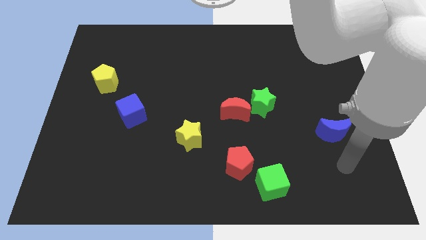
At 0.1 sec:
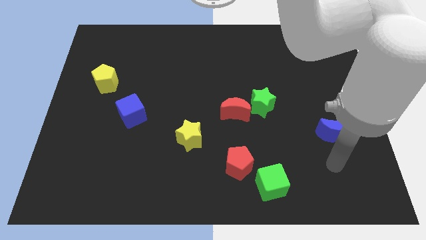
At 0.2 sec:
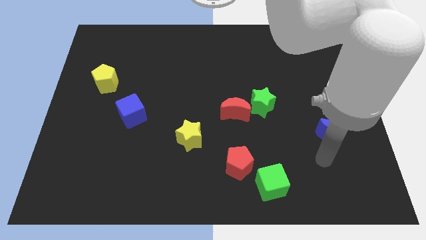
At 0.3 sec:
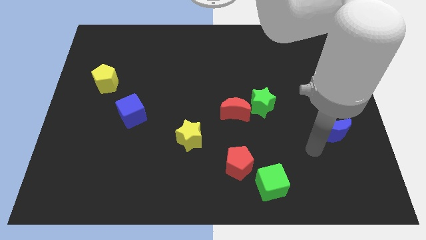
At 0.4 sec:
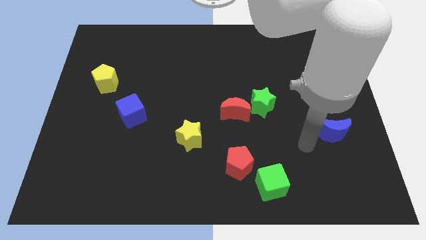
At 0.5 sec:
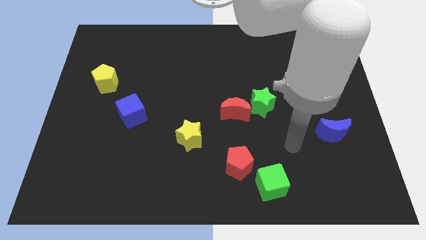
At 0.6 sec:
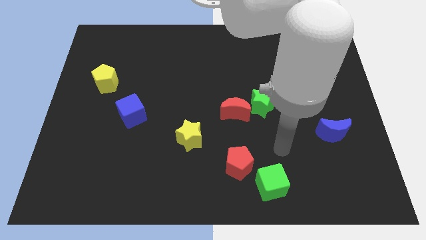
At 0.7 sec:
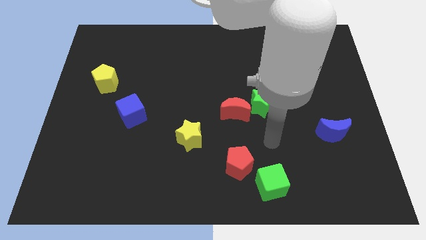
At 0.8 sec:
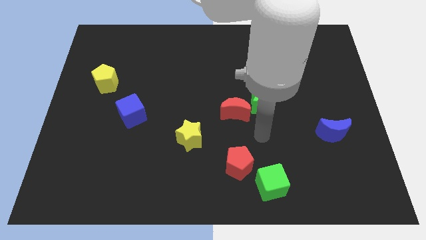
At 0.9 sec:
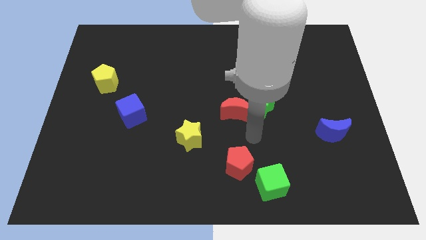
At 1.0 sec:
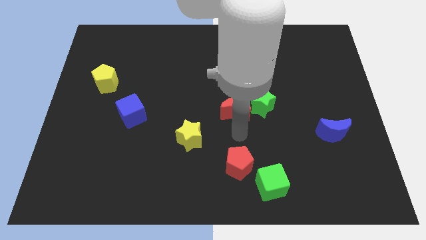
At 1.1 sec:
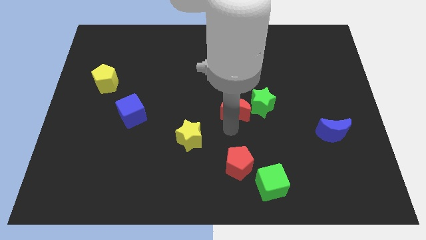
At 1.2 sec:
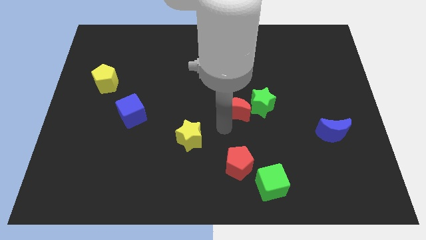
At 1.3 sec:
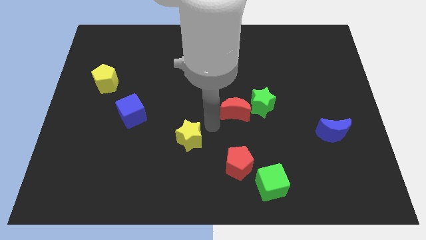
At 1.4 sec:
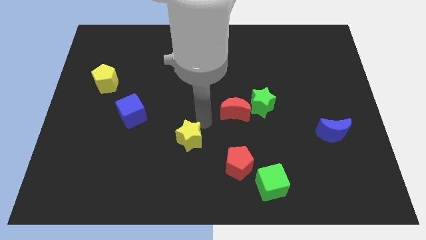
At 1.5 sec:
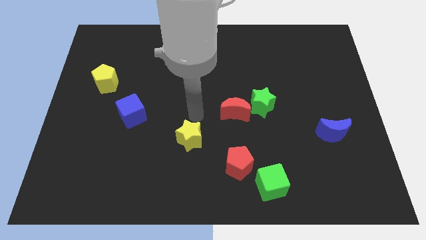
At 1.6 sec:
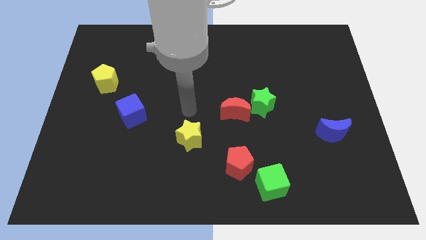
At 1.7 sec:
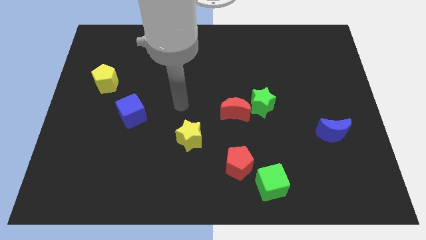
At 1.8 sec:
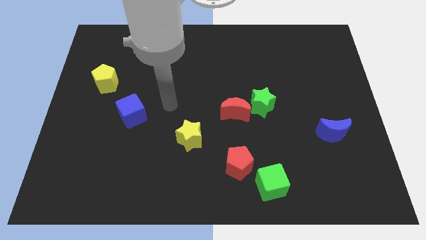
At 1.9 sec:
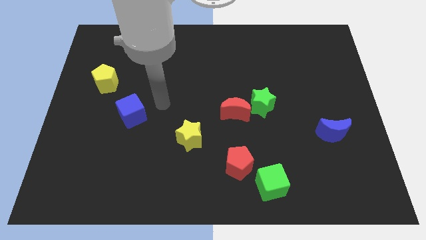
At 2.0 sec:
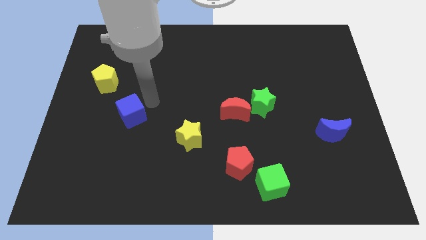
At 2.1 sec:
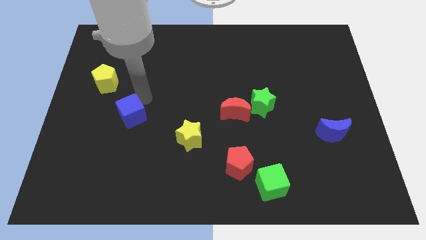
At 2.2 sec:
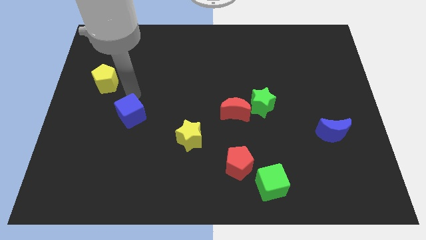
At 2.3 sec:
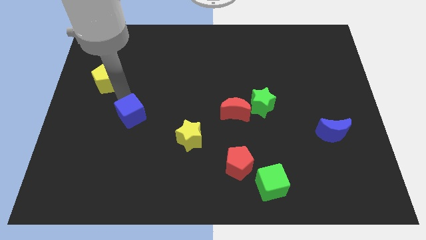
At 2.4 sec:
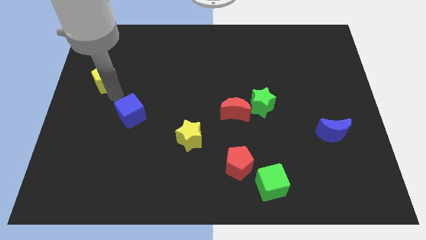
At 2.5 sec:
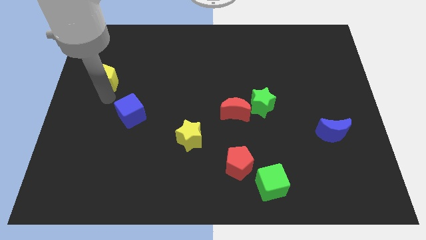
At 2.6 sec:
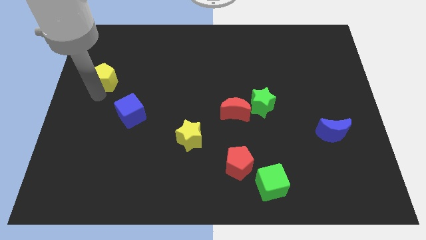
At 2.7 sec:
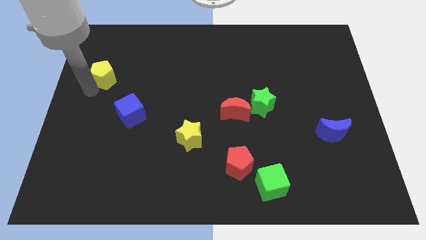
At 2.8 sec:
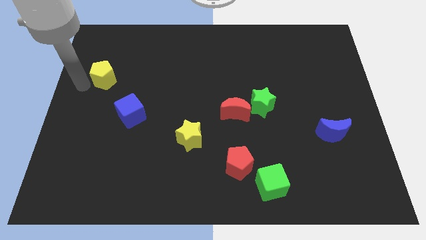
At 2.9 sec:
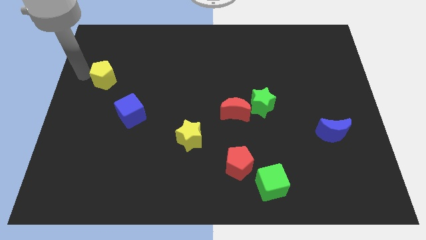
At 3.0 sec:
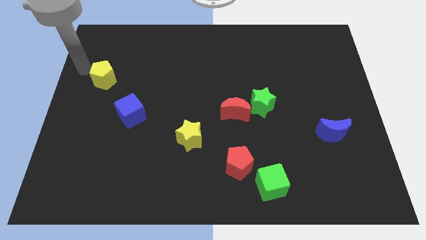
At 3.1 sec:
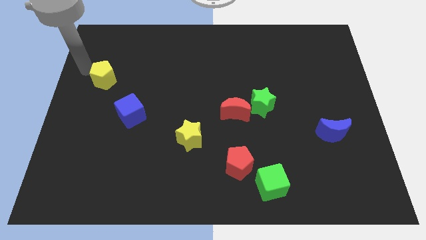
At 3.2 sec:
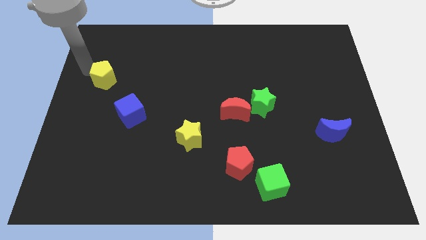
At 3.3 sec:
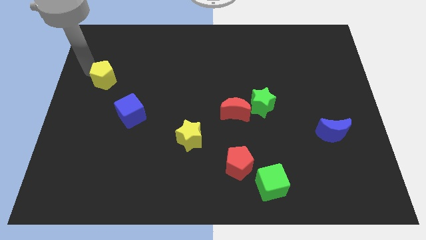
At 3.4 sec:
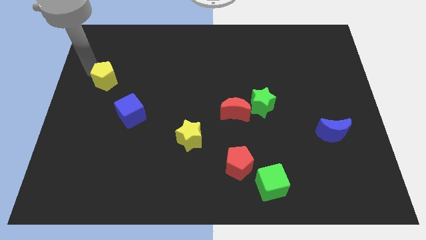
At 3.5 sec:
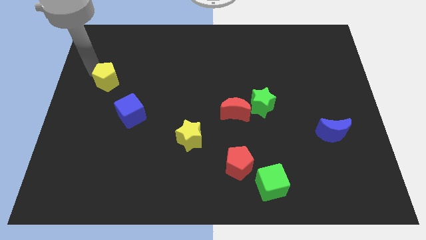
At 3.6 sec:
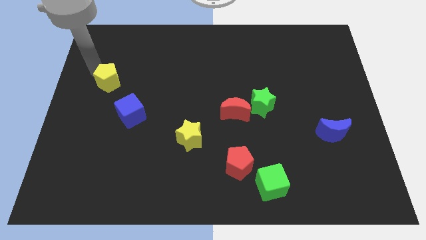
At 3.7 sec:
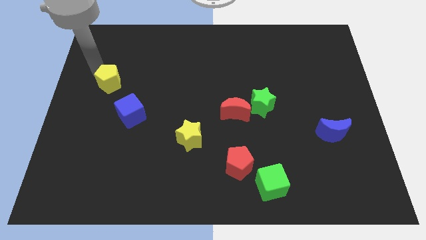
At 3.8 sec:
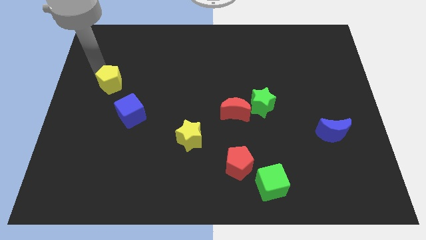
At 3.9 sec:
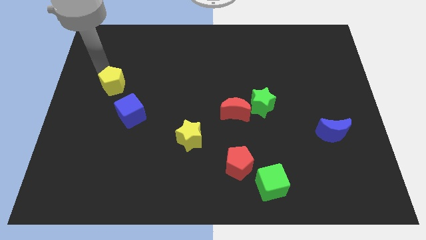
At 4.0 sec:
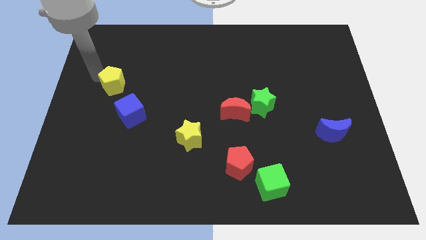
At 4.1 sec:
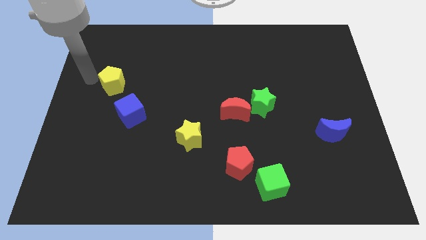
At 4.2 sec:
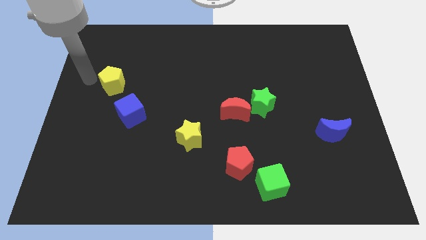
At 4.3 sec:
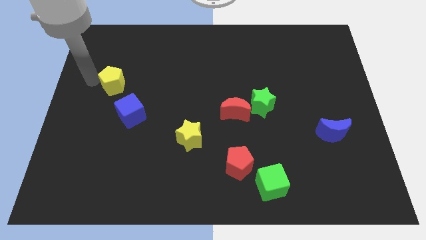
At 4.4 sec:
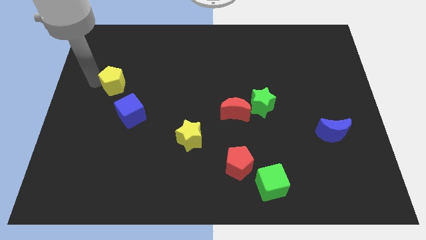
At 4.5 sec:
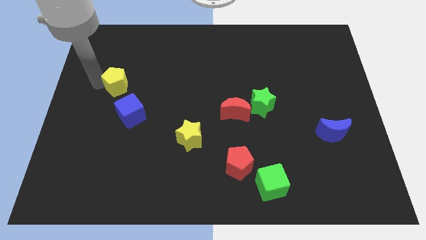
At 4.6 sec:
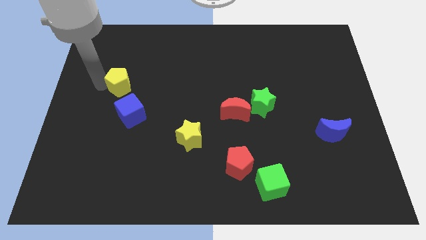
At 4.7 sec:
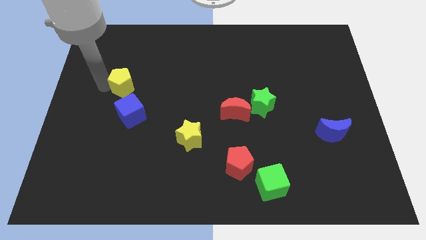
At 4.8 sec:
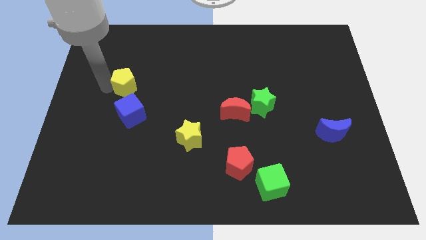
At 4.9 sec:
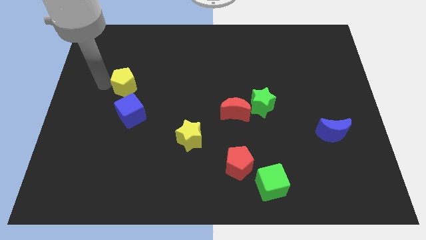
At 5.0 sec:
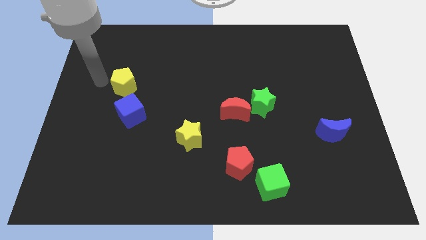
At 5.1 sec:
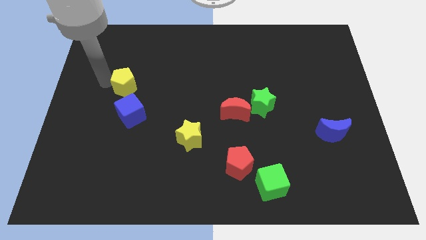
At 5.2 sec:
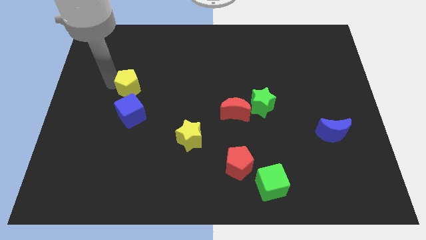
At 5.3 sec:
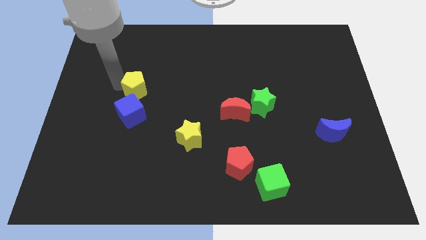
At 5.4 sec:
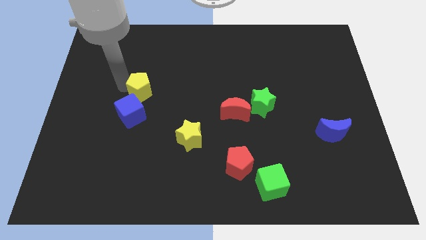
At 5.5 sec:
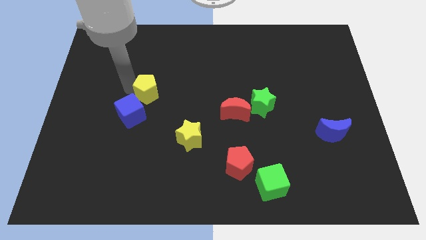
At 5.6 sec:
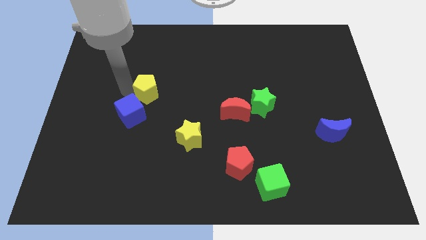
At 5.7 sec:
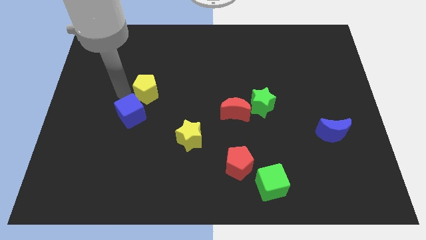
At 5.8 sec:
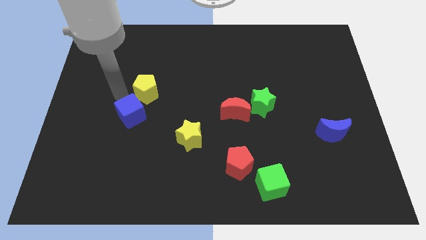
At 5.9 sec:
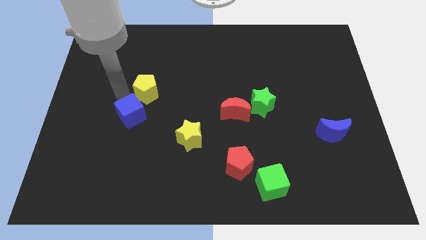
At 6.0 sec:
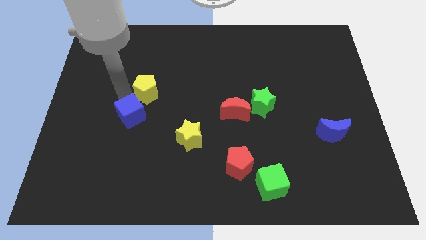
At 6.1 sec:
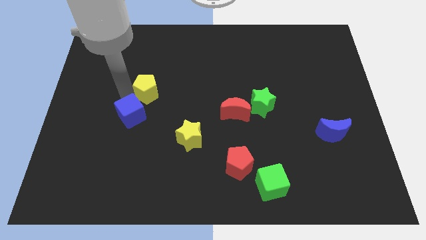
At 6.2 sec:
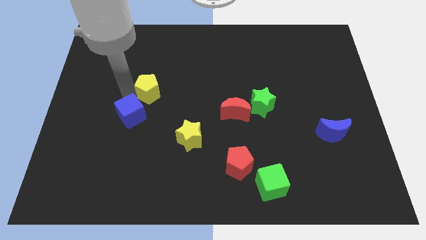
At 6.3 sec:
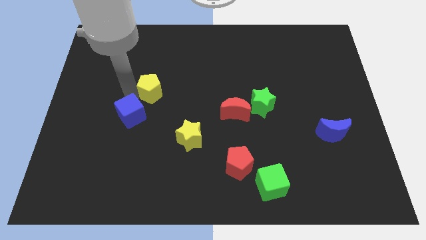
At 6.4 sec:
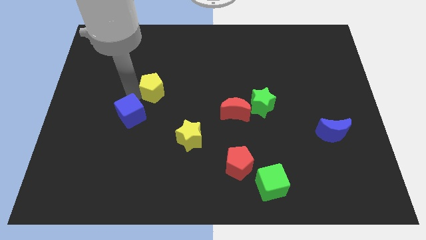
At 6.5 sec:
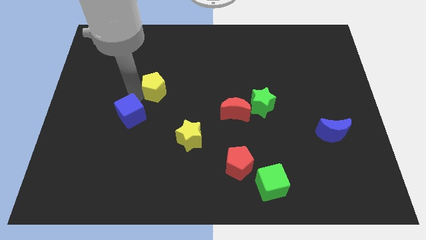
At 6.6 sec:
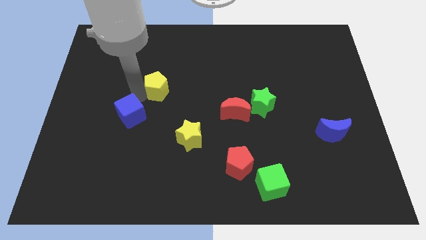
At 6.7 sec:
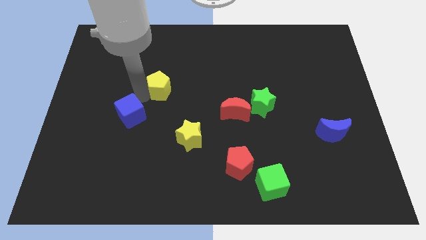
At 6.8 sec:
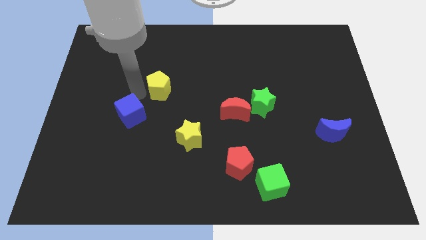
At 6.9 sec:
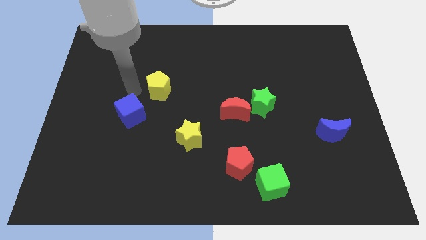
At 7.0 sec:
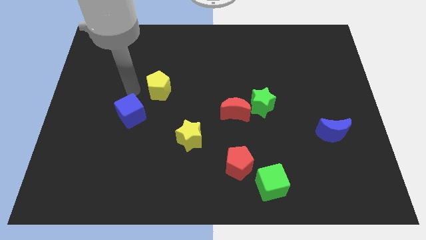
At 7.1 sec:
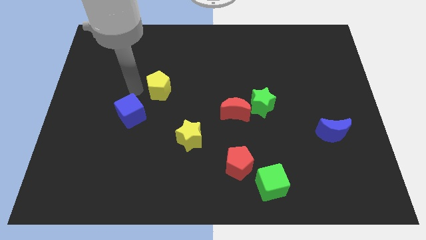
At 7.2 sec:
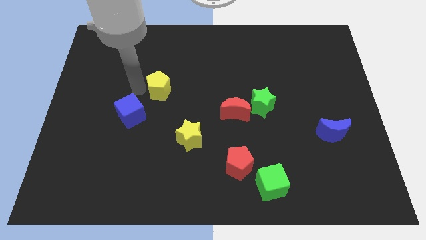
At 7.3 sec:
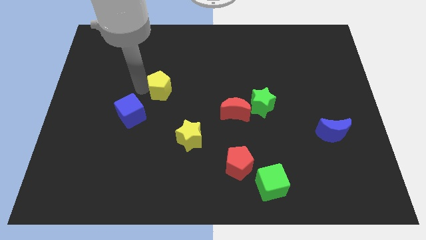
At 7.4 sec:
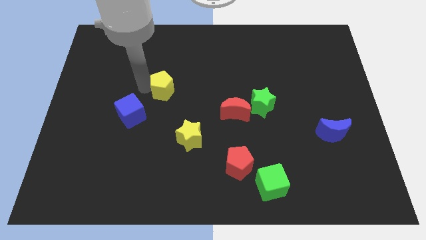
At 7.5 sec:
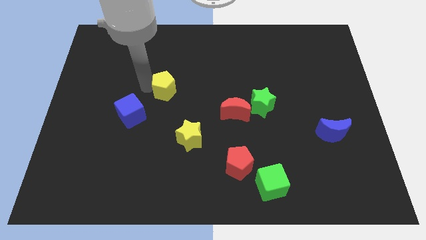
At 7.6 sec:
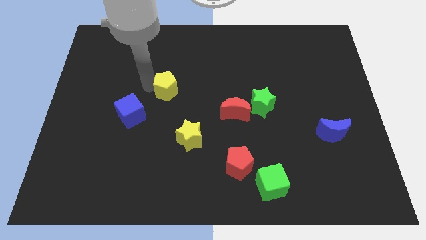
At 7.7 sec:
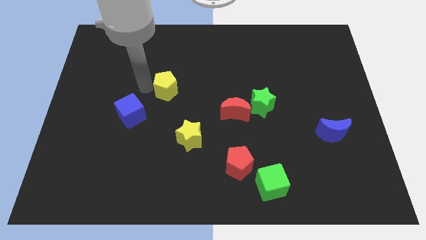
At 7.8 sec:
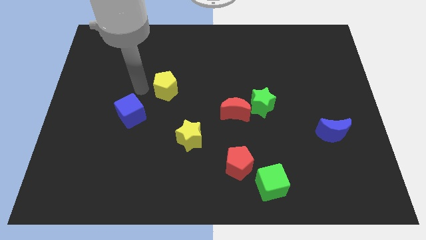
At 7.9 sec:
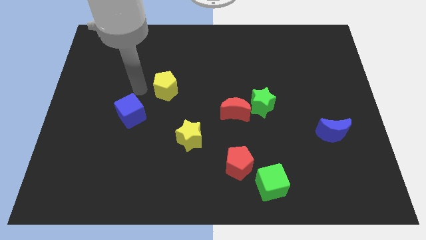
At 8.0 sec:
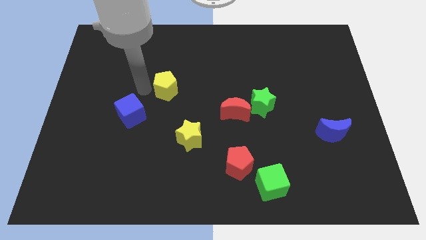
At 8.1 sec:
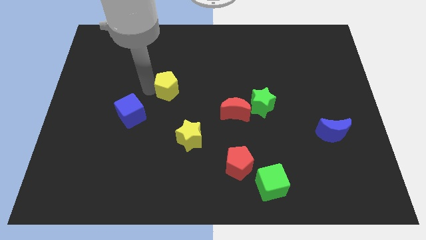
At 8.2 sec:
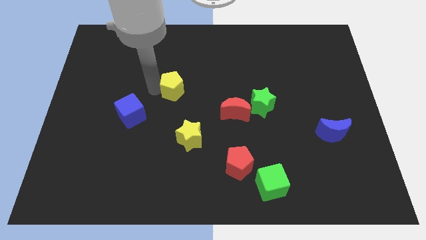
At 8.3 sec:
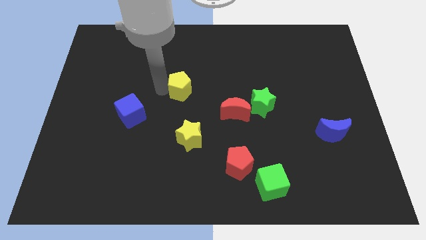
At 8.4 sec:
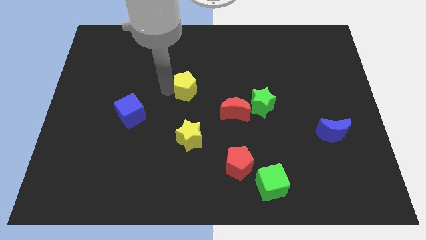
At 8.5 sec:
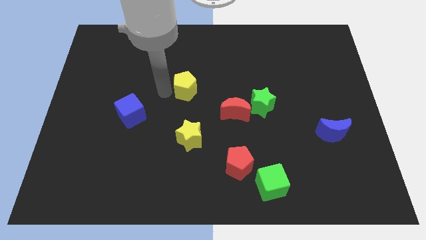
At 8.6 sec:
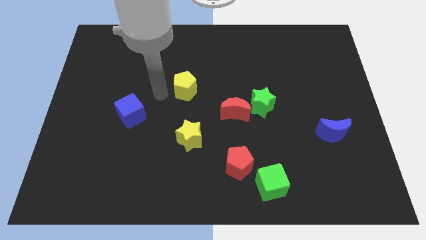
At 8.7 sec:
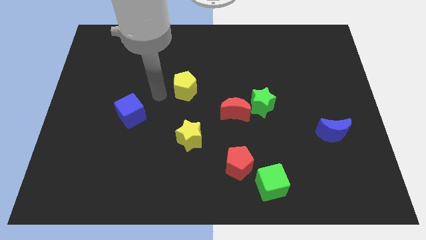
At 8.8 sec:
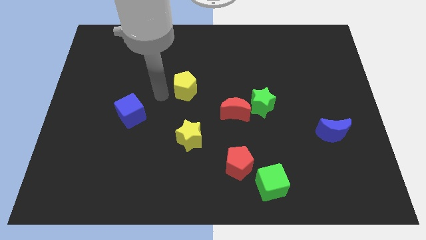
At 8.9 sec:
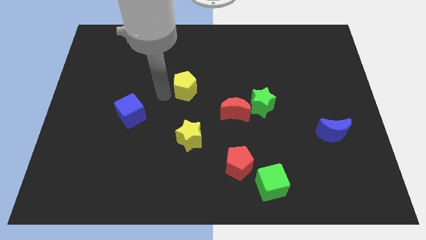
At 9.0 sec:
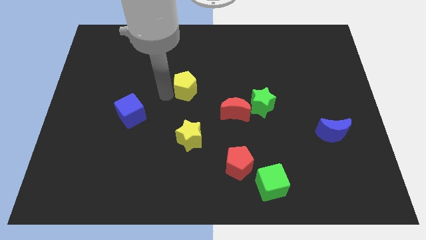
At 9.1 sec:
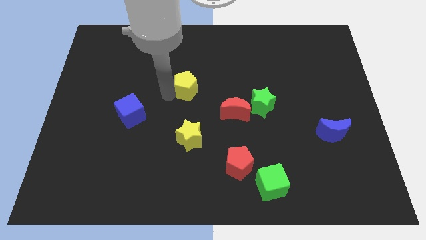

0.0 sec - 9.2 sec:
push the yellow pentagon right
